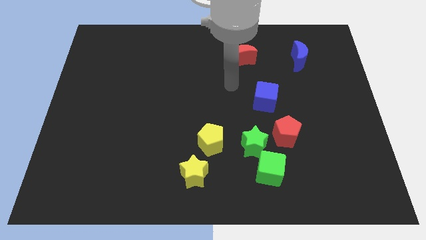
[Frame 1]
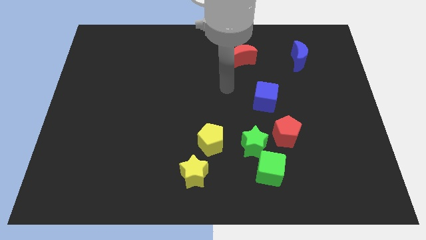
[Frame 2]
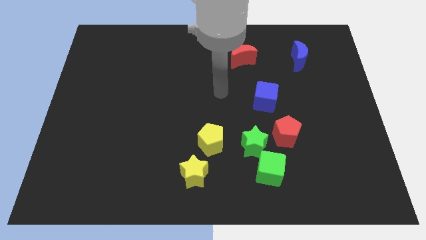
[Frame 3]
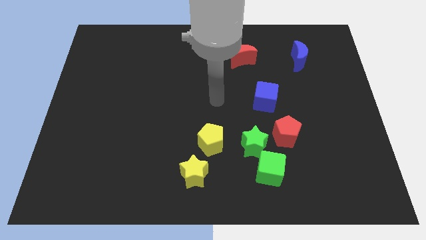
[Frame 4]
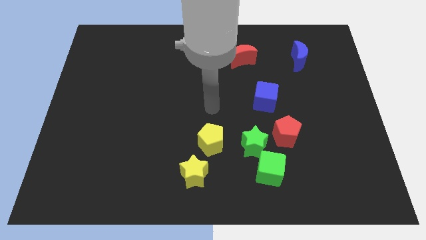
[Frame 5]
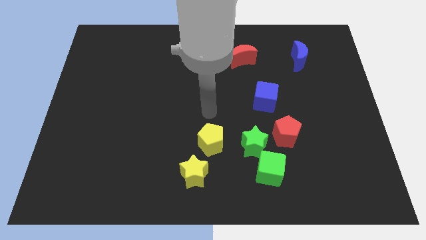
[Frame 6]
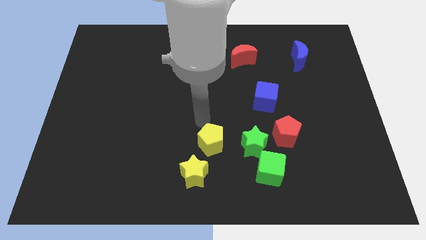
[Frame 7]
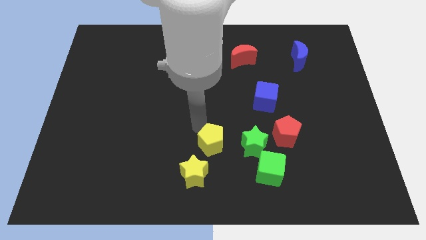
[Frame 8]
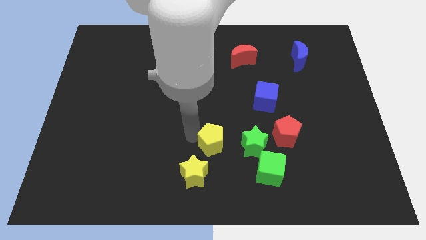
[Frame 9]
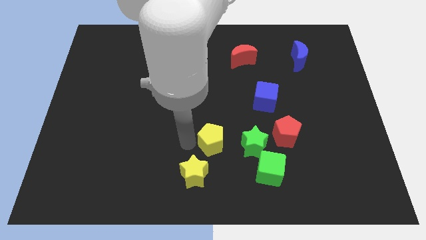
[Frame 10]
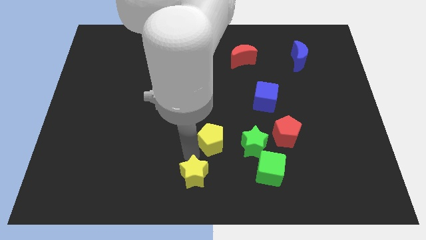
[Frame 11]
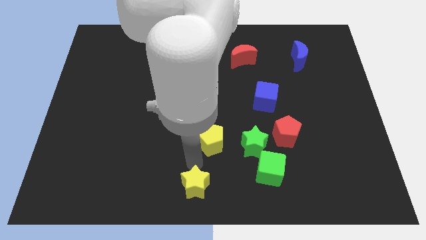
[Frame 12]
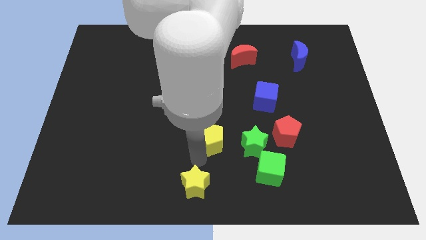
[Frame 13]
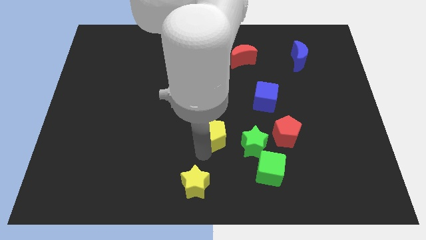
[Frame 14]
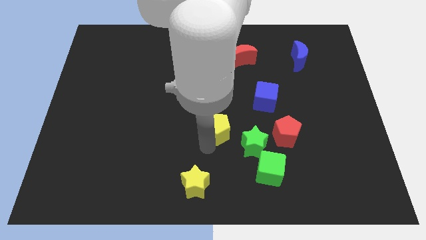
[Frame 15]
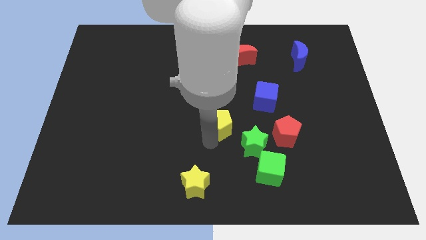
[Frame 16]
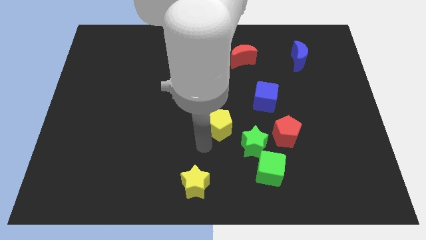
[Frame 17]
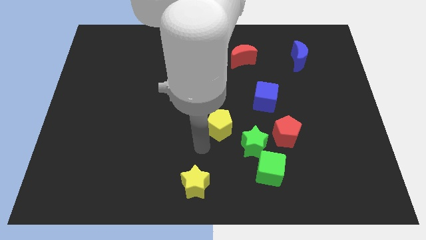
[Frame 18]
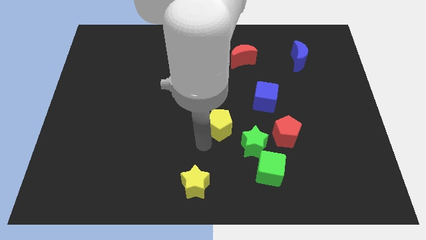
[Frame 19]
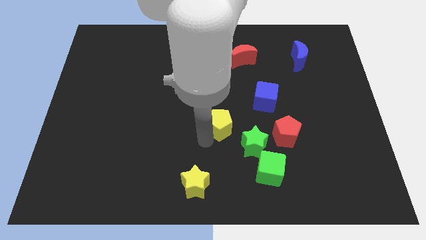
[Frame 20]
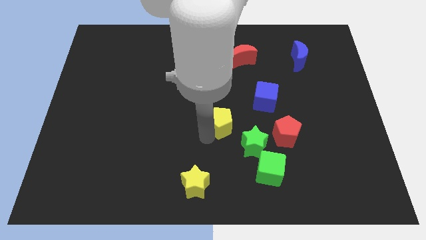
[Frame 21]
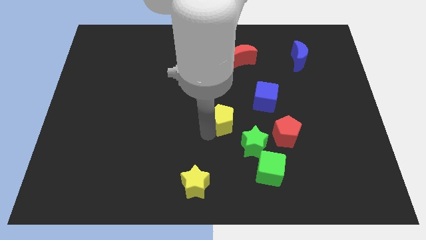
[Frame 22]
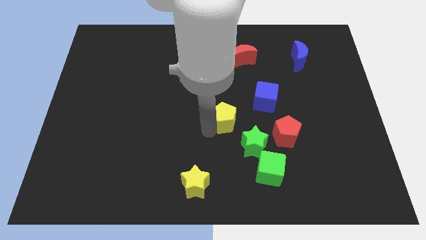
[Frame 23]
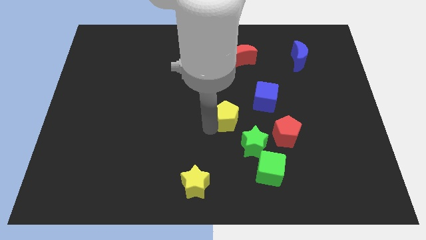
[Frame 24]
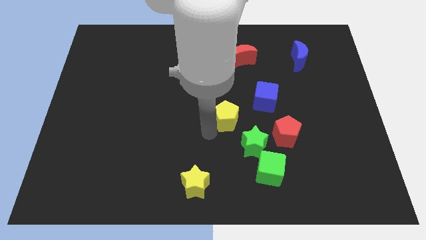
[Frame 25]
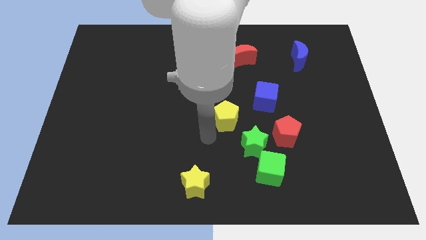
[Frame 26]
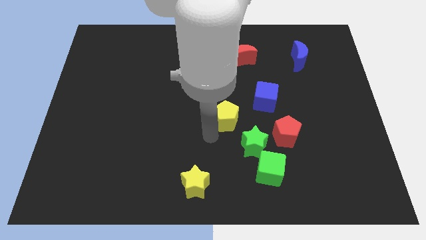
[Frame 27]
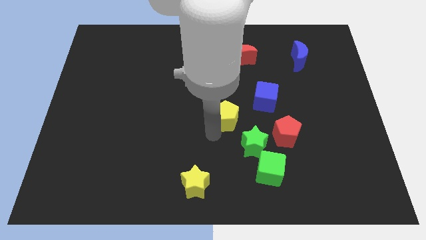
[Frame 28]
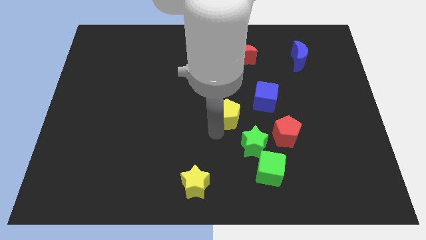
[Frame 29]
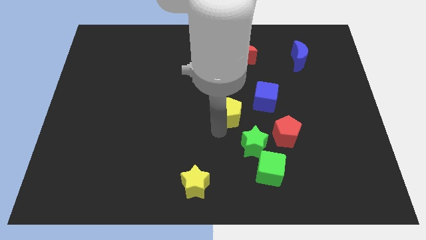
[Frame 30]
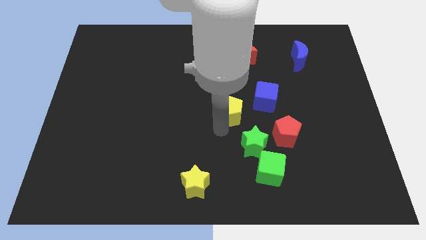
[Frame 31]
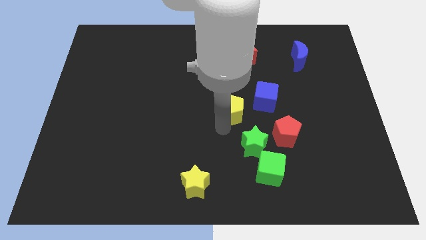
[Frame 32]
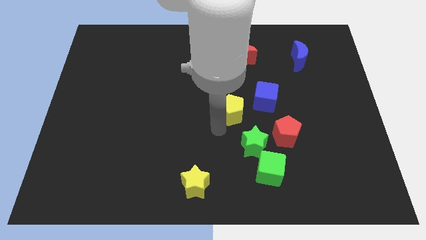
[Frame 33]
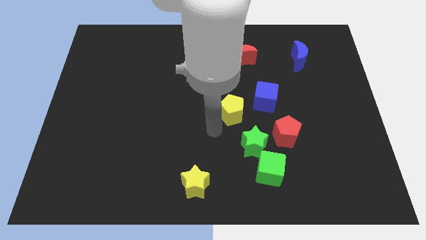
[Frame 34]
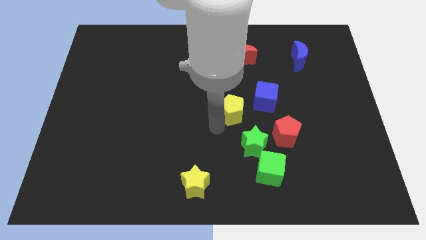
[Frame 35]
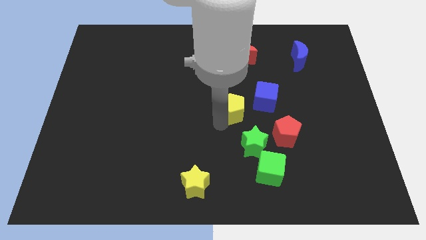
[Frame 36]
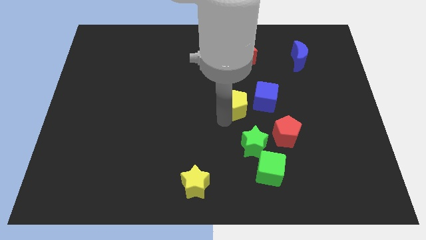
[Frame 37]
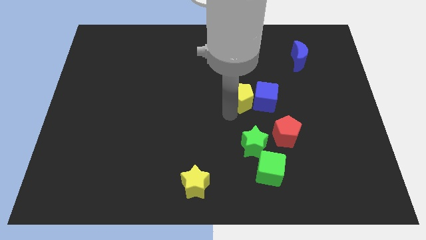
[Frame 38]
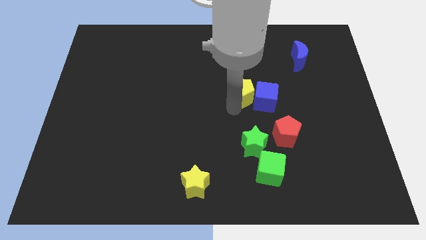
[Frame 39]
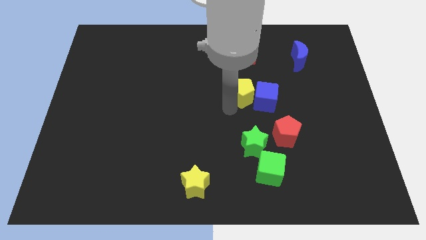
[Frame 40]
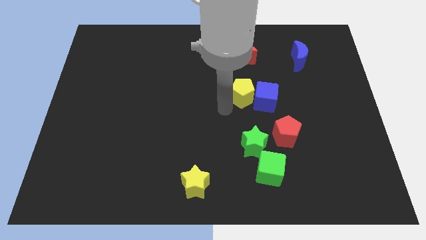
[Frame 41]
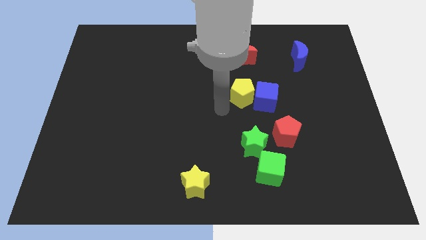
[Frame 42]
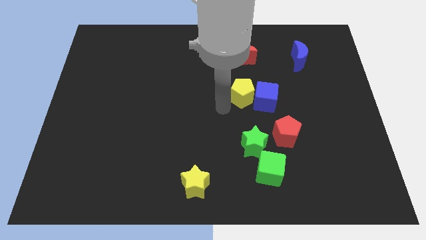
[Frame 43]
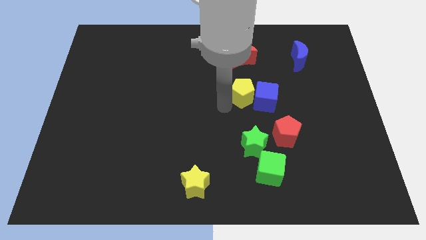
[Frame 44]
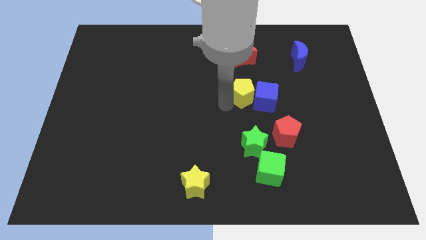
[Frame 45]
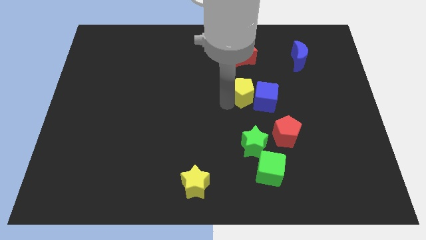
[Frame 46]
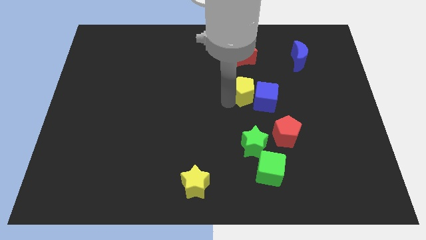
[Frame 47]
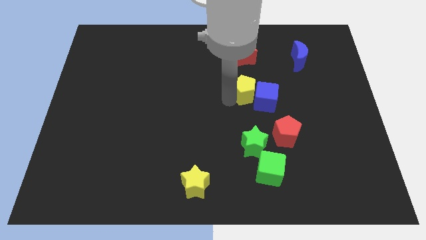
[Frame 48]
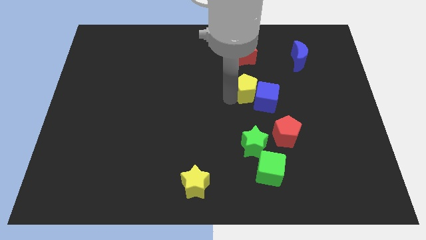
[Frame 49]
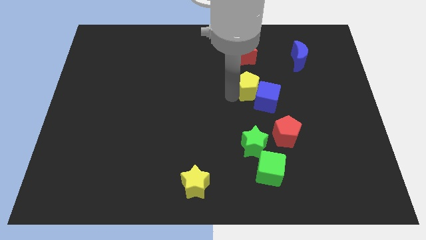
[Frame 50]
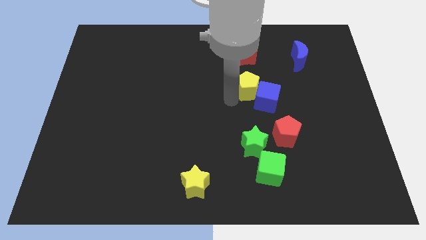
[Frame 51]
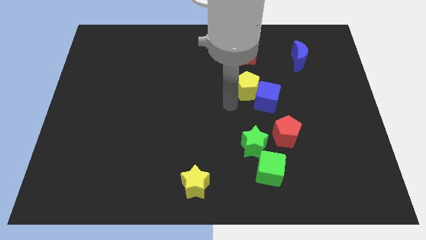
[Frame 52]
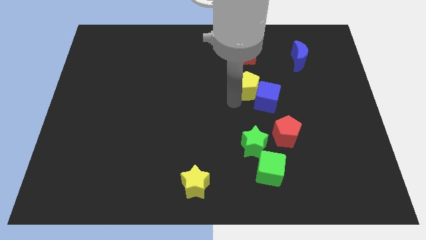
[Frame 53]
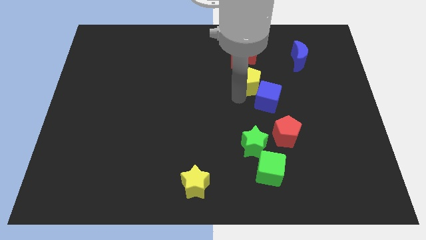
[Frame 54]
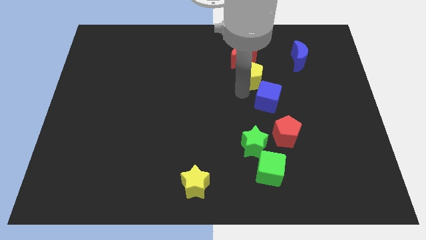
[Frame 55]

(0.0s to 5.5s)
move the yellow pentagon to the bottom right of the red moon
